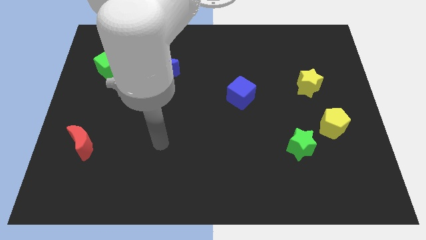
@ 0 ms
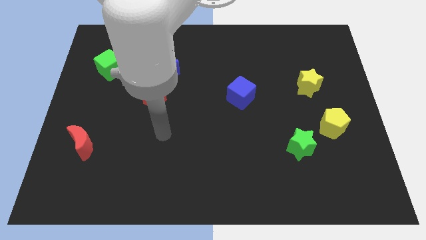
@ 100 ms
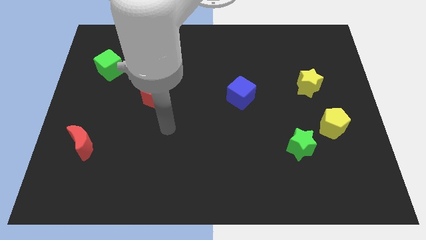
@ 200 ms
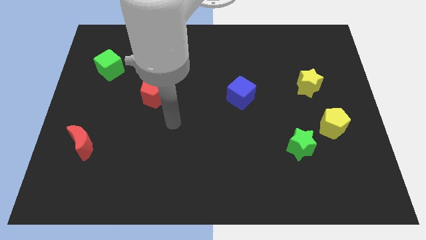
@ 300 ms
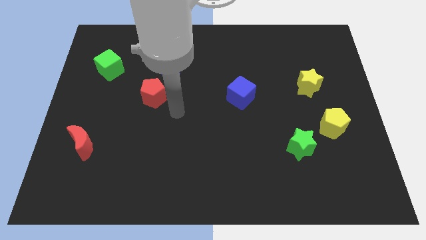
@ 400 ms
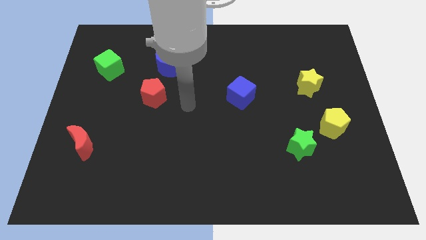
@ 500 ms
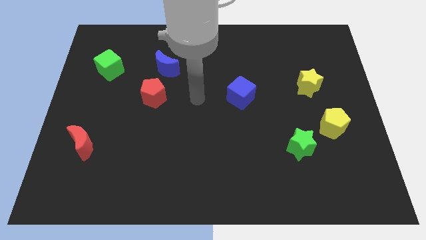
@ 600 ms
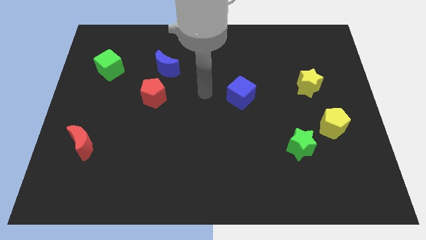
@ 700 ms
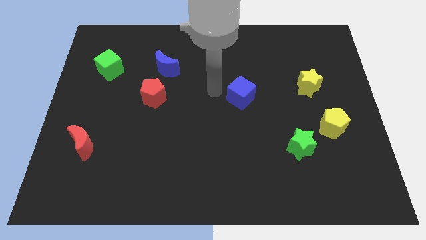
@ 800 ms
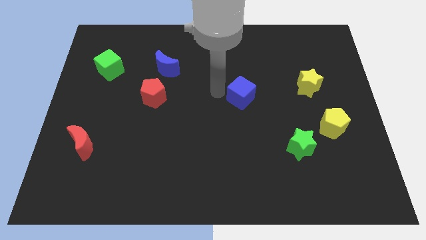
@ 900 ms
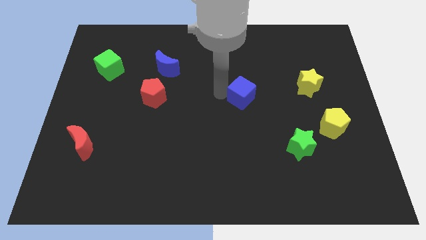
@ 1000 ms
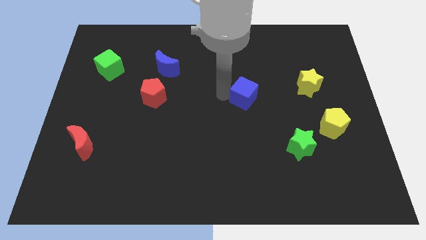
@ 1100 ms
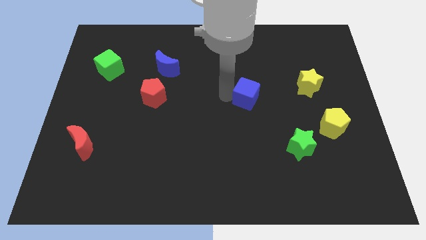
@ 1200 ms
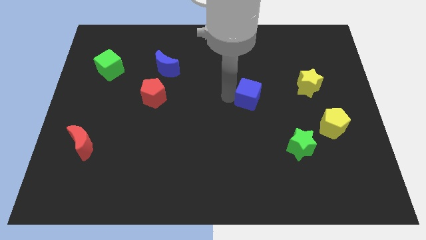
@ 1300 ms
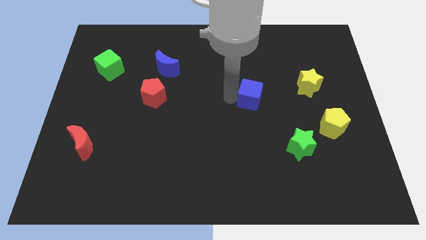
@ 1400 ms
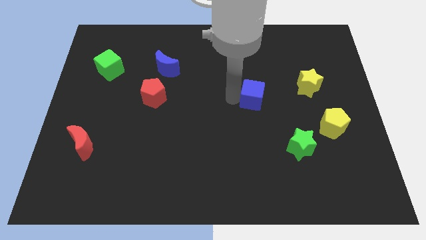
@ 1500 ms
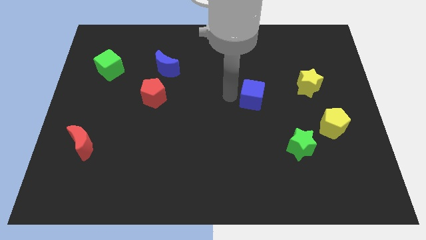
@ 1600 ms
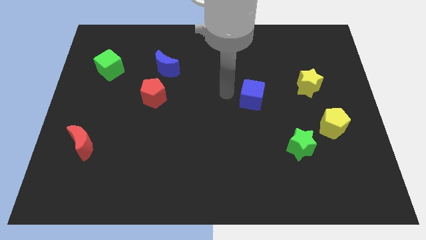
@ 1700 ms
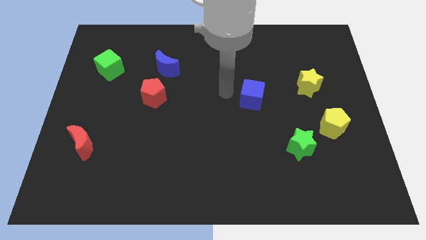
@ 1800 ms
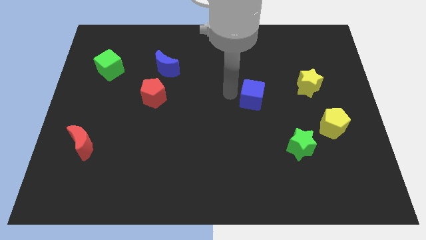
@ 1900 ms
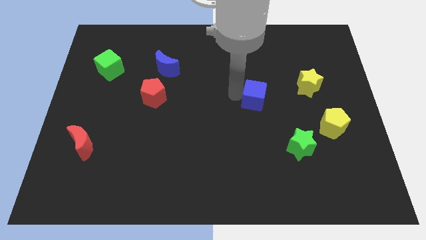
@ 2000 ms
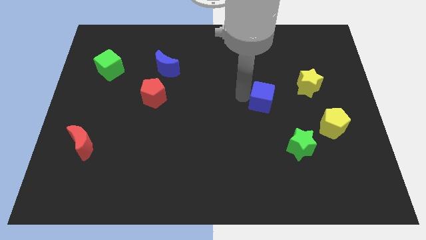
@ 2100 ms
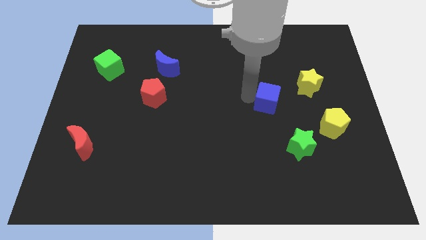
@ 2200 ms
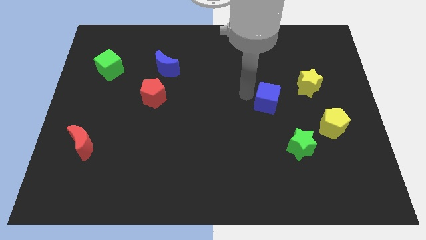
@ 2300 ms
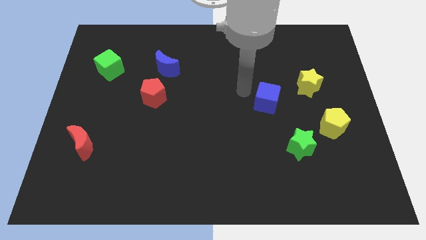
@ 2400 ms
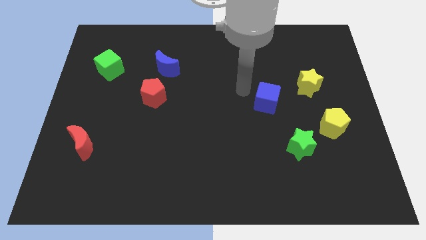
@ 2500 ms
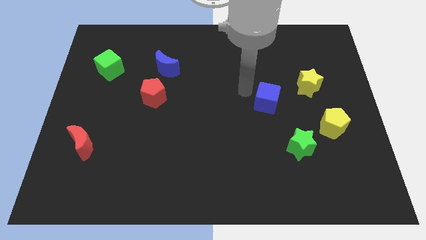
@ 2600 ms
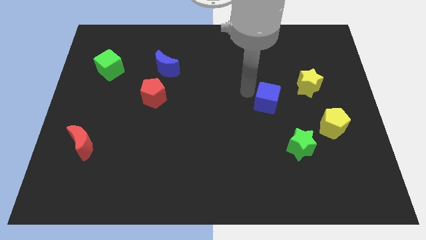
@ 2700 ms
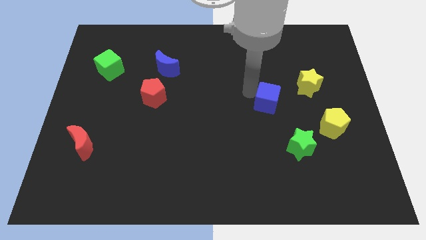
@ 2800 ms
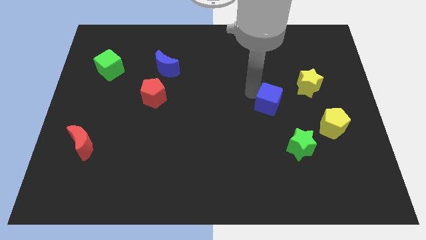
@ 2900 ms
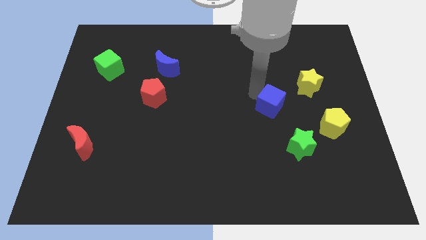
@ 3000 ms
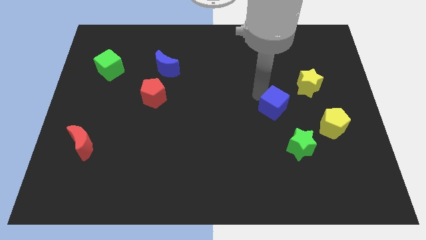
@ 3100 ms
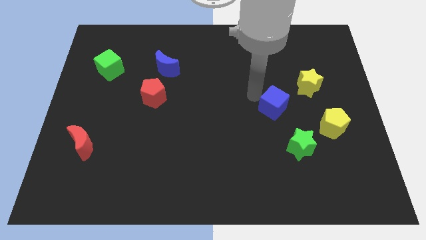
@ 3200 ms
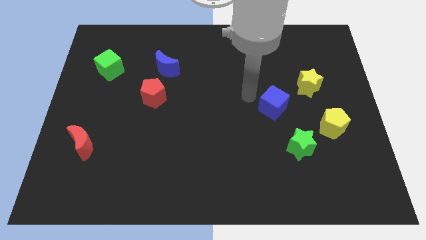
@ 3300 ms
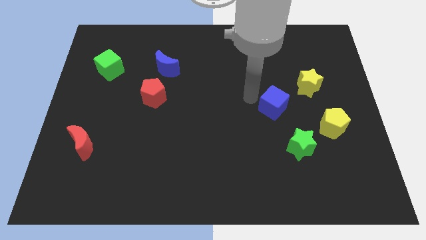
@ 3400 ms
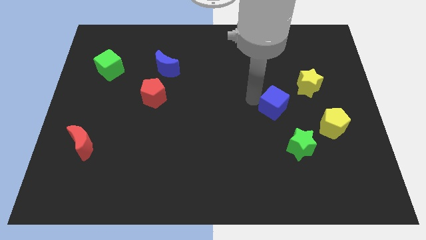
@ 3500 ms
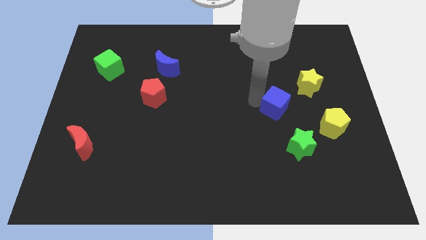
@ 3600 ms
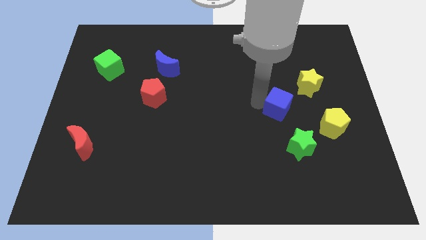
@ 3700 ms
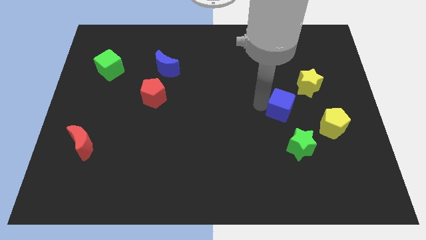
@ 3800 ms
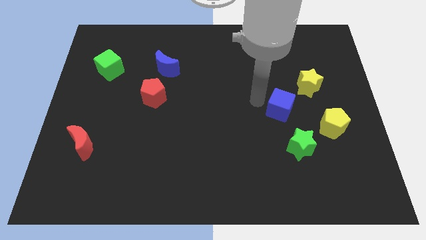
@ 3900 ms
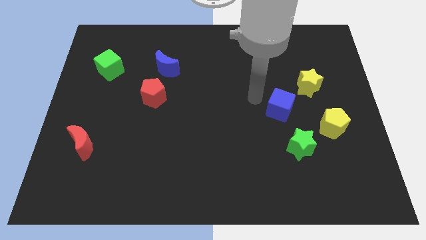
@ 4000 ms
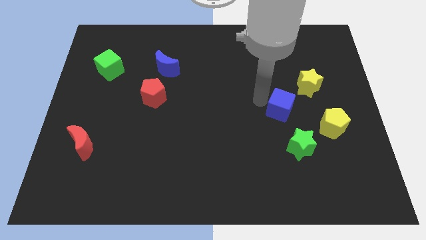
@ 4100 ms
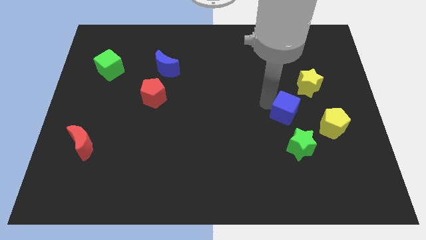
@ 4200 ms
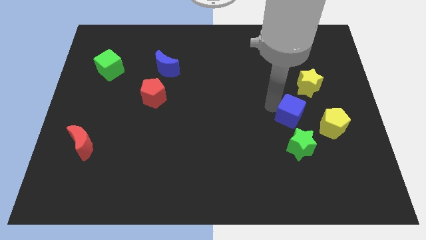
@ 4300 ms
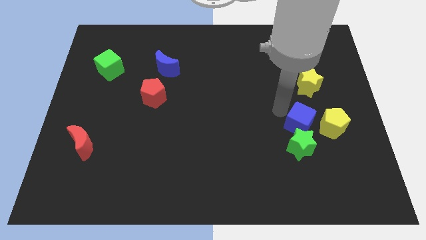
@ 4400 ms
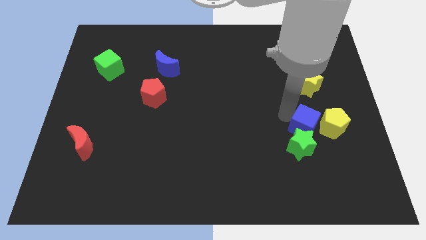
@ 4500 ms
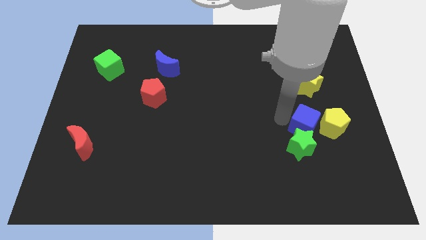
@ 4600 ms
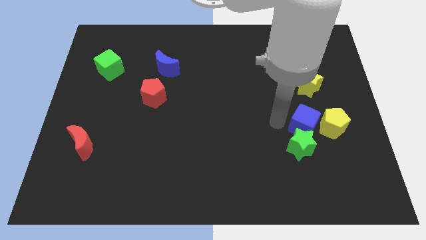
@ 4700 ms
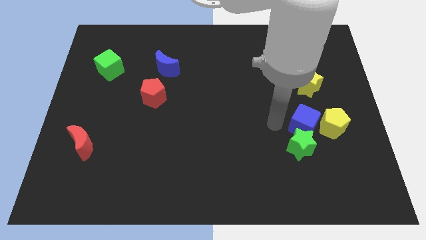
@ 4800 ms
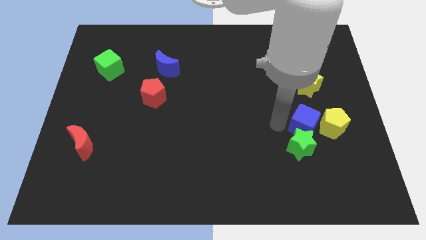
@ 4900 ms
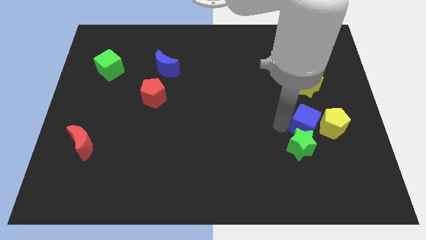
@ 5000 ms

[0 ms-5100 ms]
push the blue cube towards the yellow pentagon

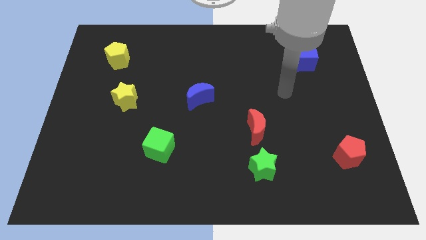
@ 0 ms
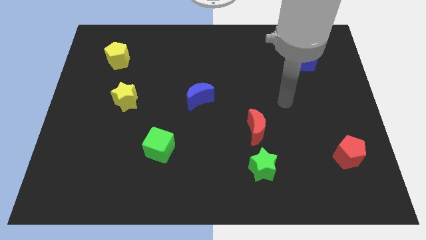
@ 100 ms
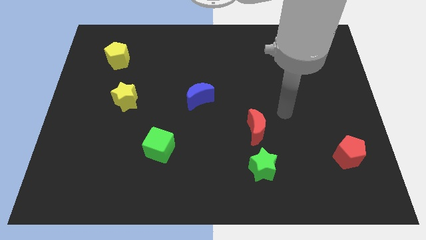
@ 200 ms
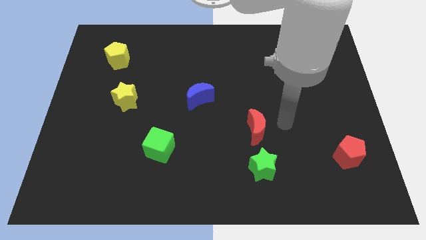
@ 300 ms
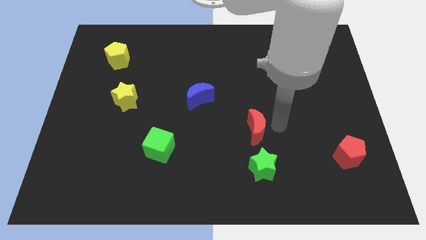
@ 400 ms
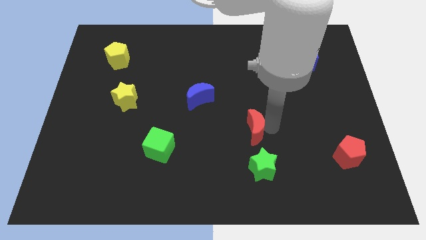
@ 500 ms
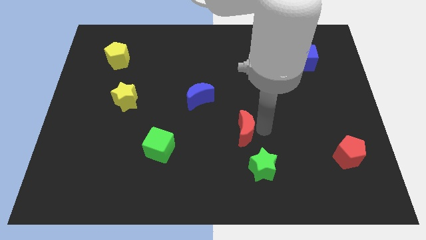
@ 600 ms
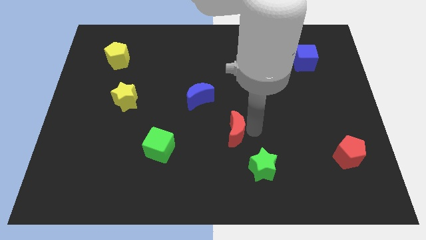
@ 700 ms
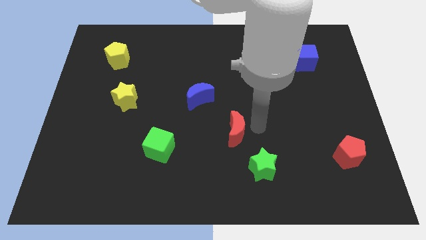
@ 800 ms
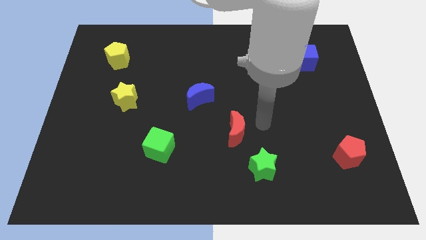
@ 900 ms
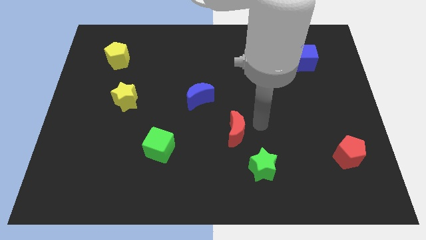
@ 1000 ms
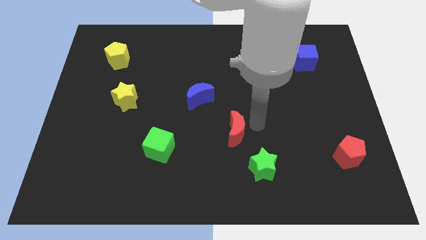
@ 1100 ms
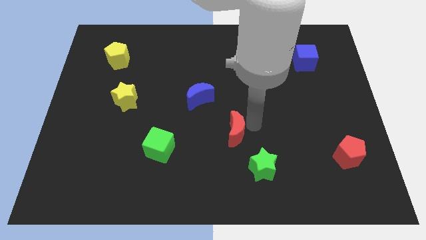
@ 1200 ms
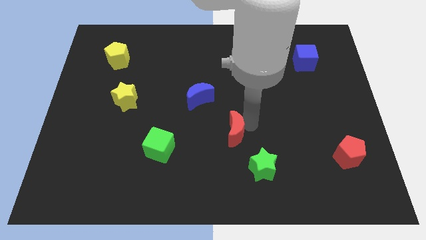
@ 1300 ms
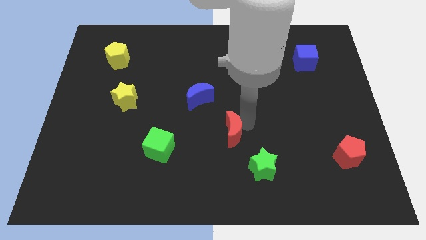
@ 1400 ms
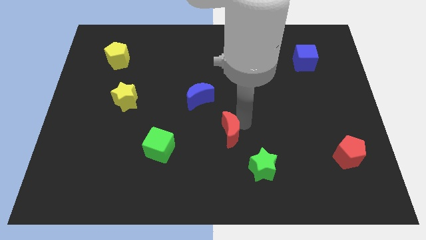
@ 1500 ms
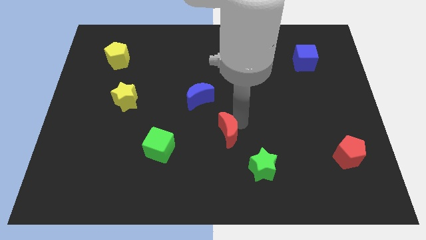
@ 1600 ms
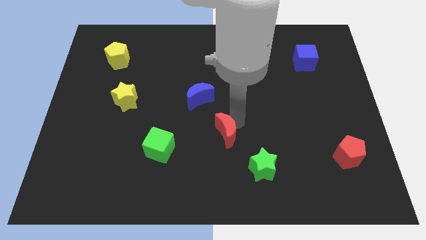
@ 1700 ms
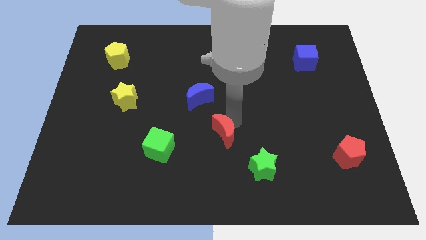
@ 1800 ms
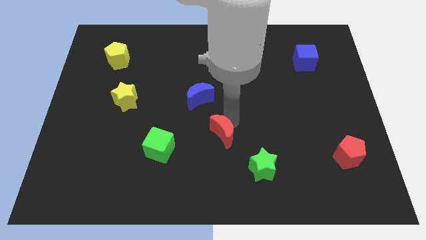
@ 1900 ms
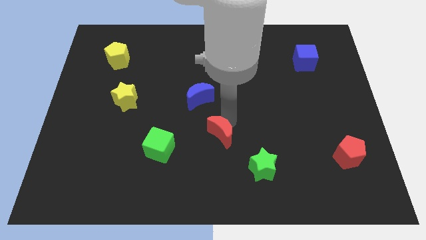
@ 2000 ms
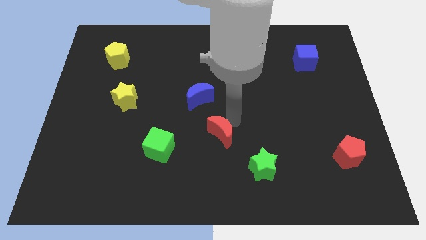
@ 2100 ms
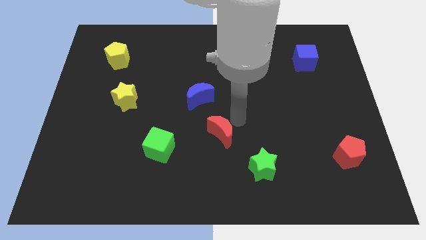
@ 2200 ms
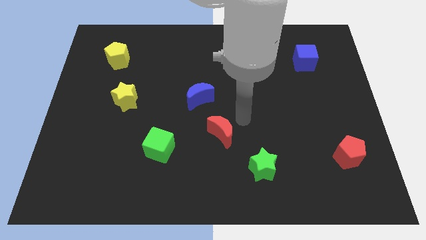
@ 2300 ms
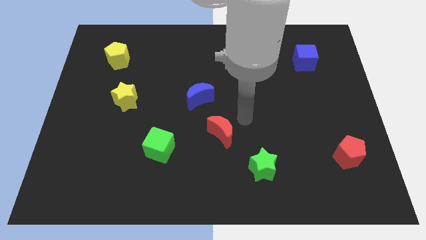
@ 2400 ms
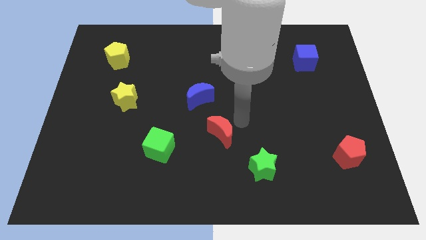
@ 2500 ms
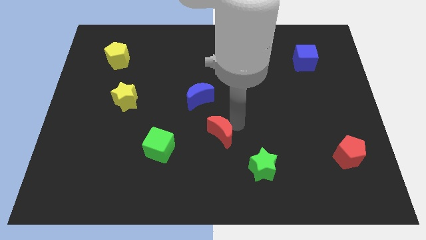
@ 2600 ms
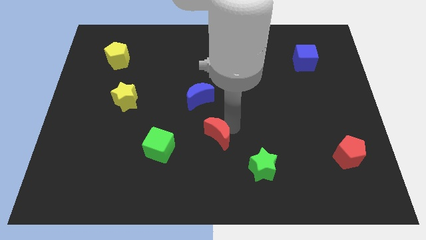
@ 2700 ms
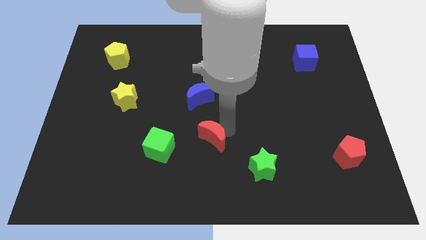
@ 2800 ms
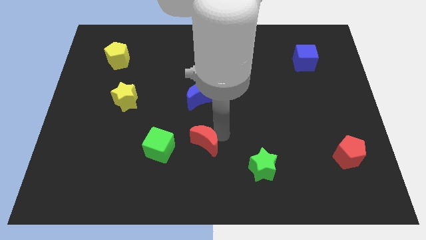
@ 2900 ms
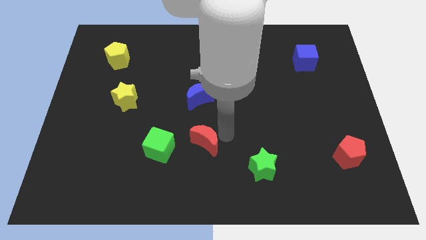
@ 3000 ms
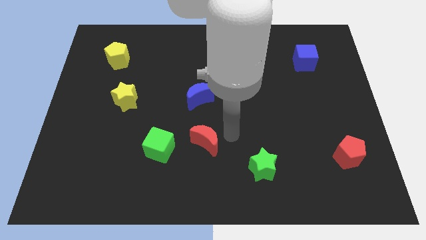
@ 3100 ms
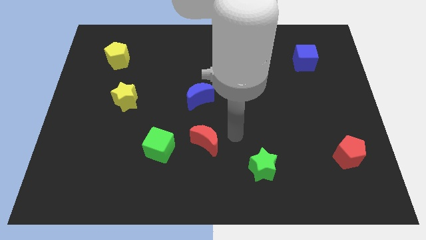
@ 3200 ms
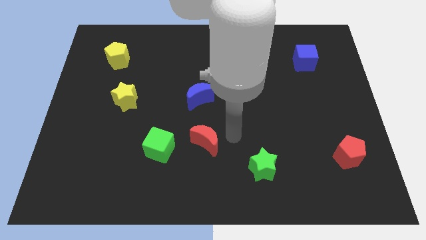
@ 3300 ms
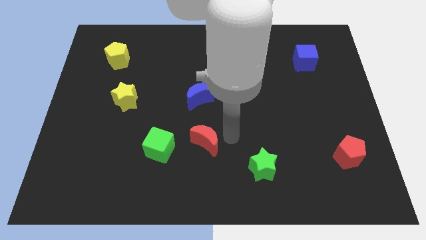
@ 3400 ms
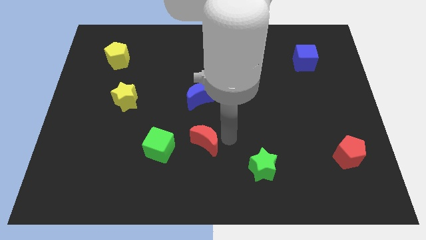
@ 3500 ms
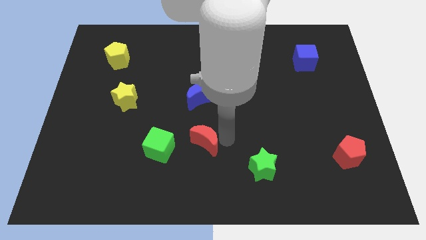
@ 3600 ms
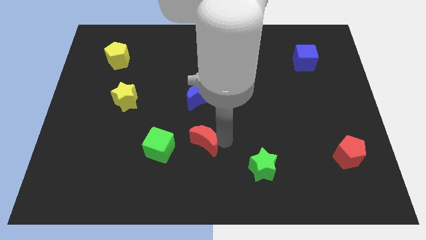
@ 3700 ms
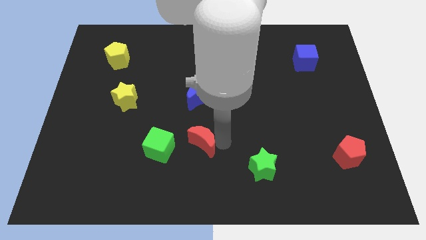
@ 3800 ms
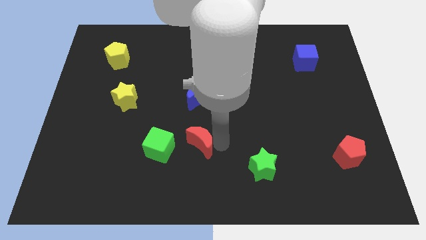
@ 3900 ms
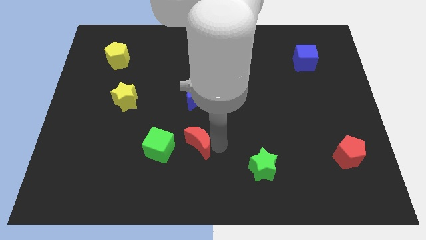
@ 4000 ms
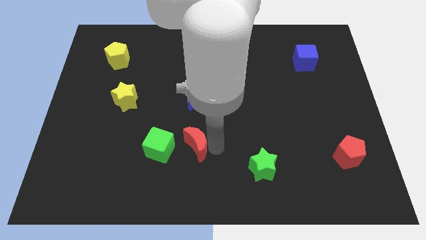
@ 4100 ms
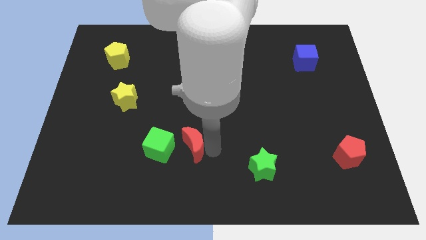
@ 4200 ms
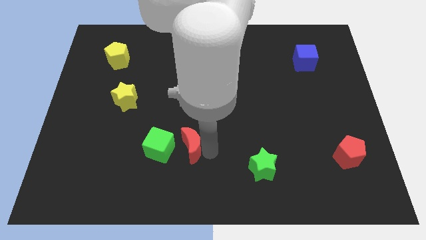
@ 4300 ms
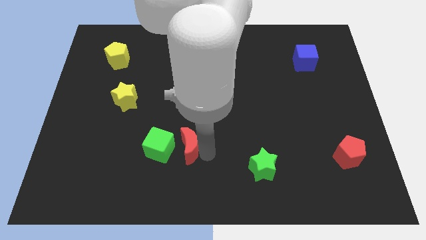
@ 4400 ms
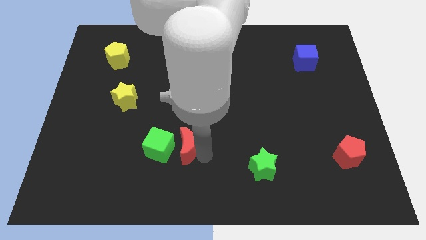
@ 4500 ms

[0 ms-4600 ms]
push the red moon close to the green cube
